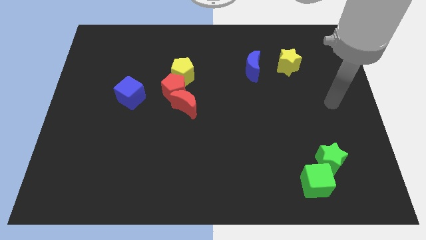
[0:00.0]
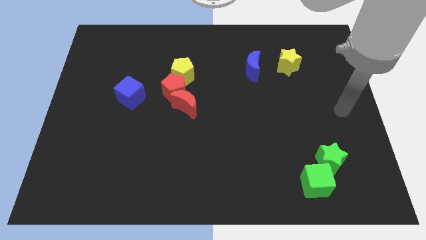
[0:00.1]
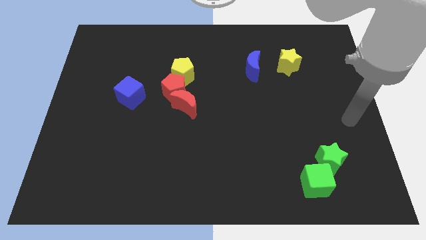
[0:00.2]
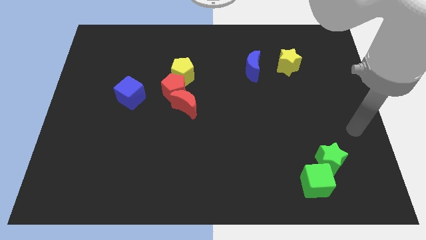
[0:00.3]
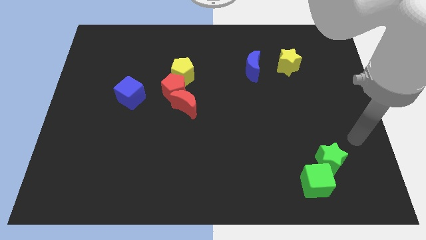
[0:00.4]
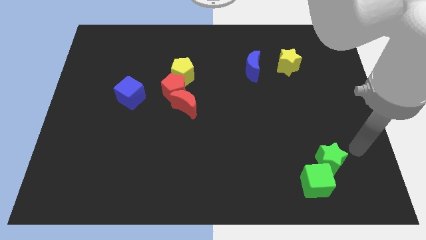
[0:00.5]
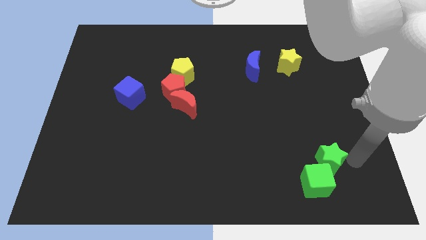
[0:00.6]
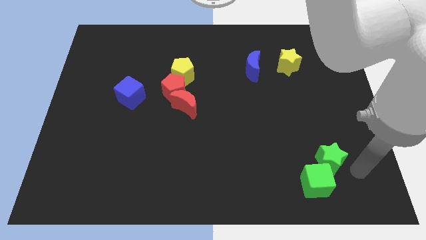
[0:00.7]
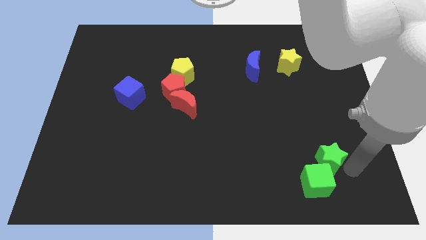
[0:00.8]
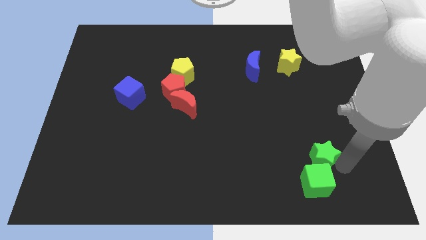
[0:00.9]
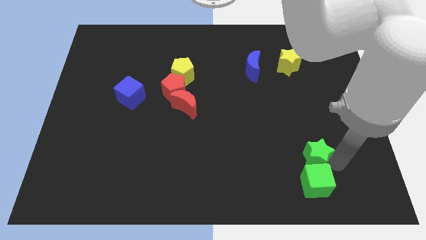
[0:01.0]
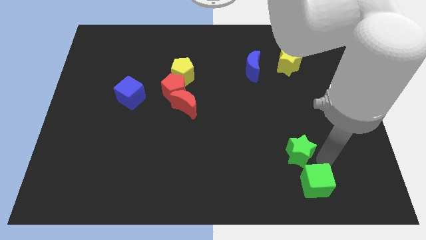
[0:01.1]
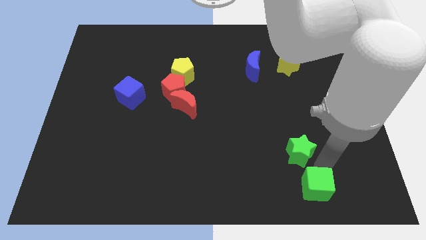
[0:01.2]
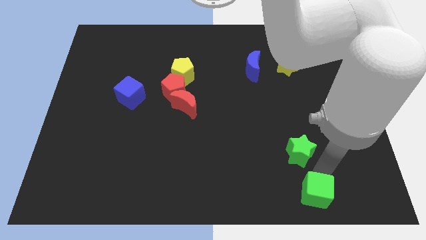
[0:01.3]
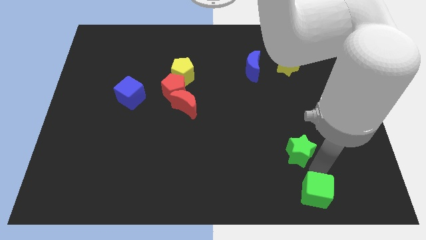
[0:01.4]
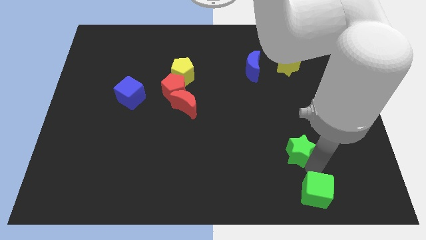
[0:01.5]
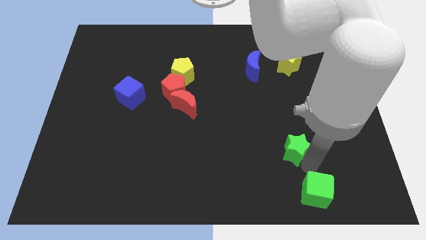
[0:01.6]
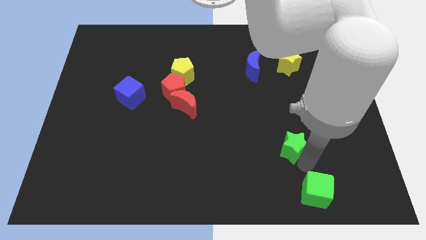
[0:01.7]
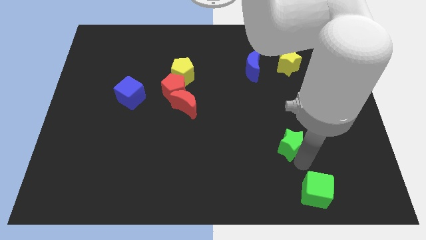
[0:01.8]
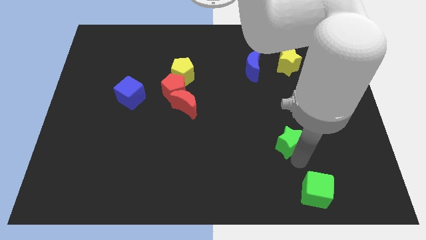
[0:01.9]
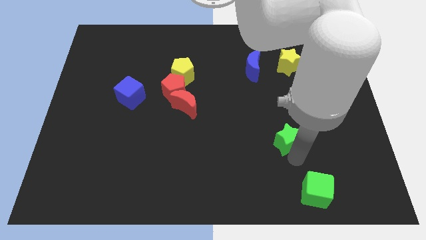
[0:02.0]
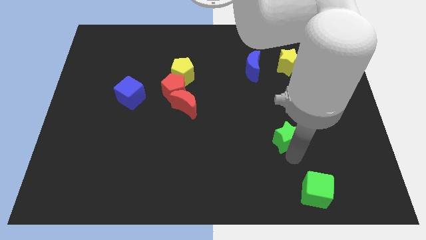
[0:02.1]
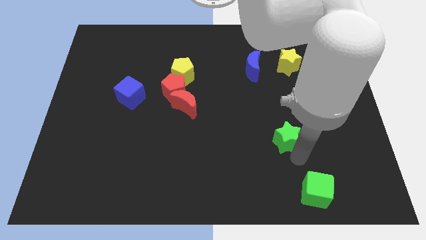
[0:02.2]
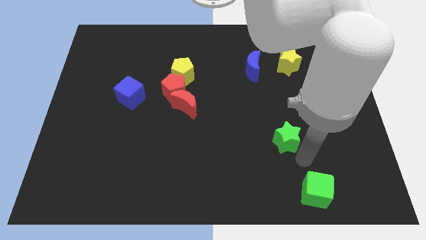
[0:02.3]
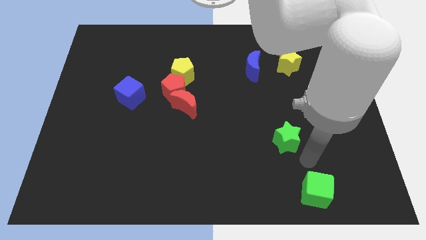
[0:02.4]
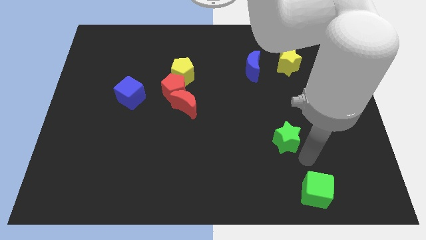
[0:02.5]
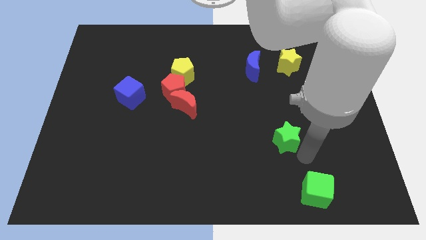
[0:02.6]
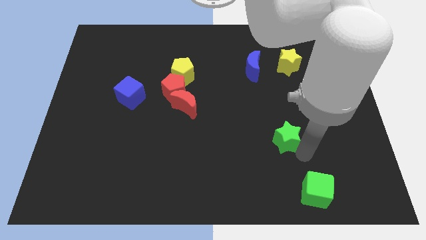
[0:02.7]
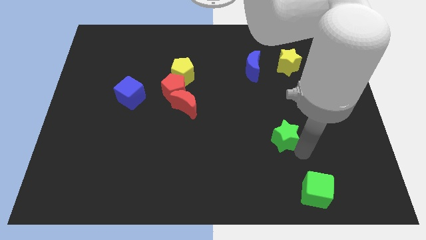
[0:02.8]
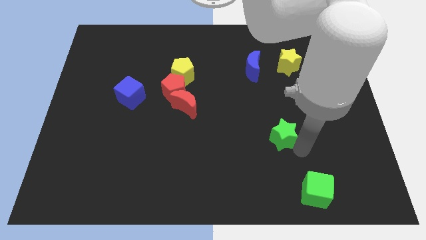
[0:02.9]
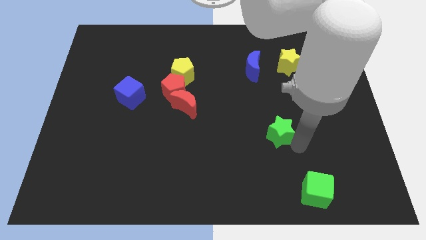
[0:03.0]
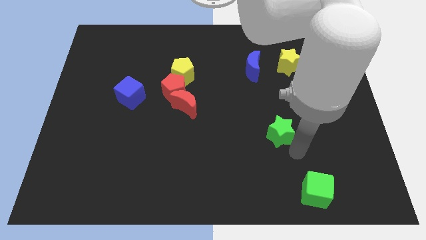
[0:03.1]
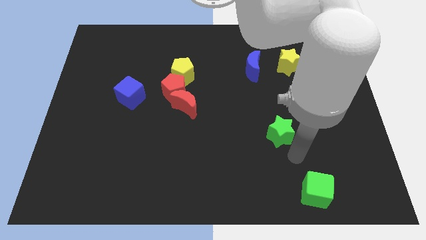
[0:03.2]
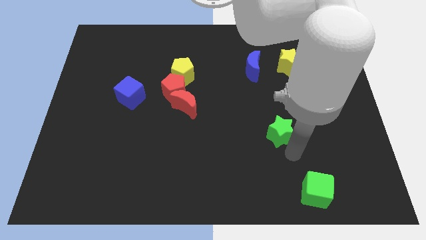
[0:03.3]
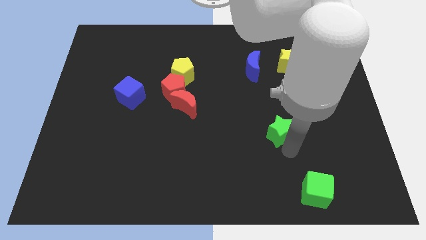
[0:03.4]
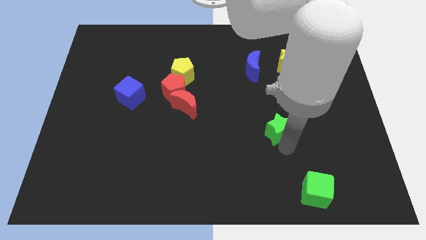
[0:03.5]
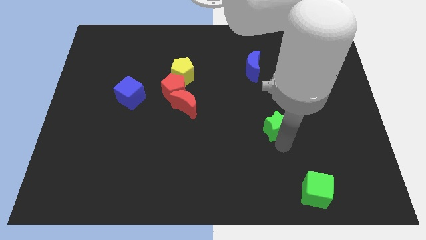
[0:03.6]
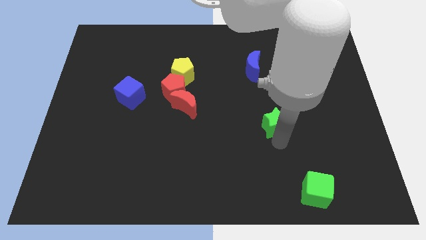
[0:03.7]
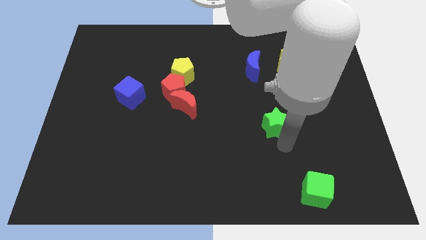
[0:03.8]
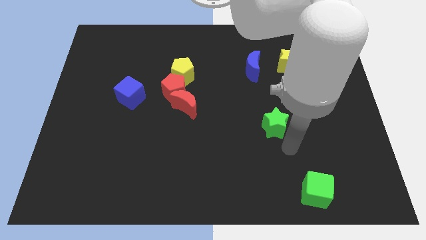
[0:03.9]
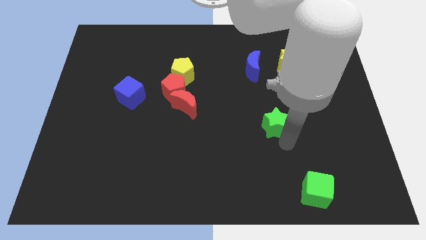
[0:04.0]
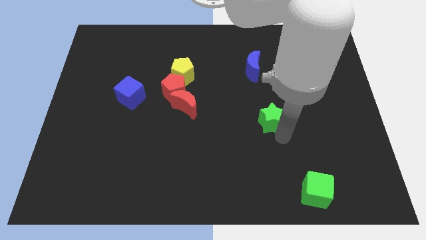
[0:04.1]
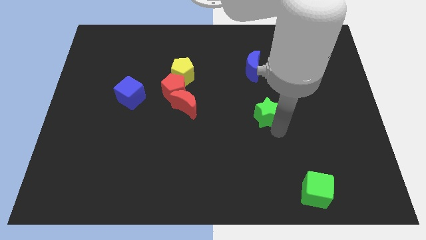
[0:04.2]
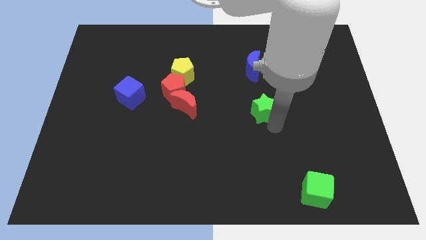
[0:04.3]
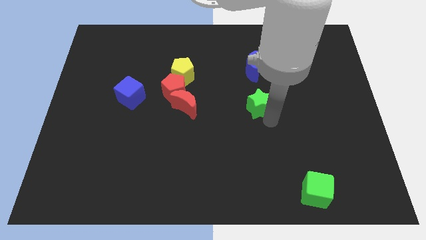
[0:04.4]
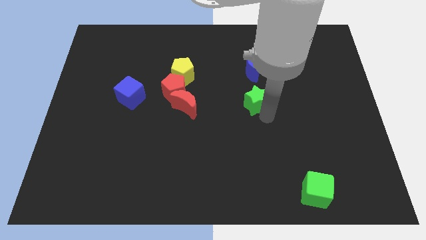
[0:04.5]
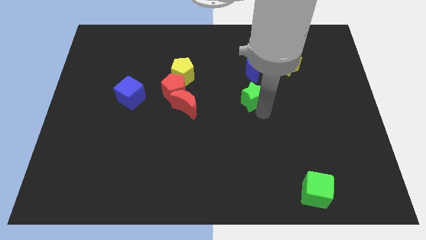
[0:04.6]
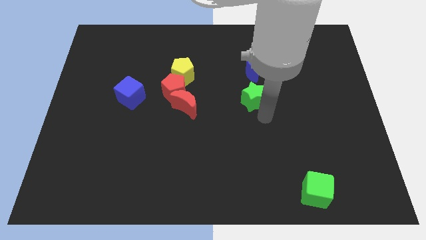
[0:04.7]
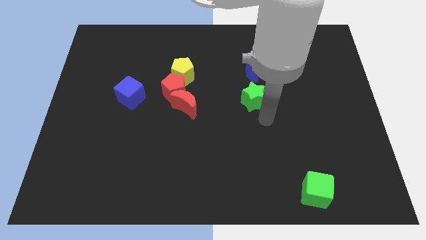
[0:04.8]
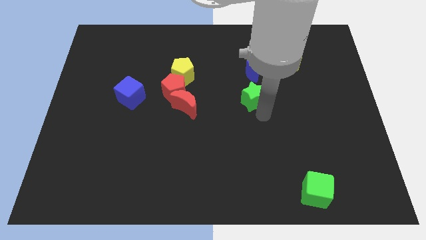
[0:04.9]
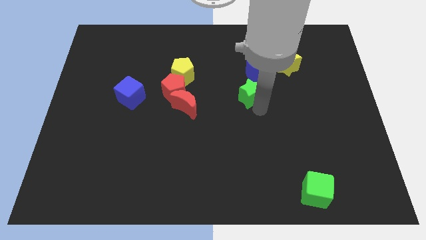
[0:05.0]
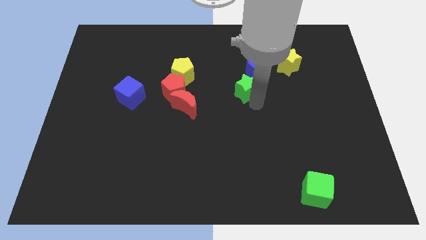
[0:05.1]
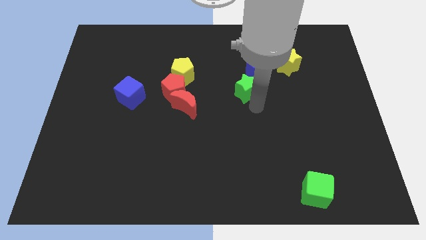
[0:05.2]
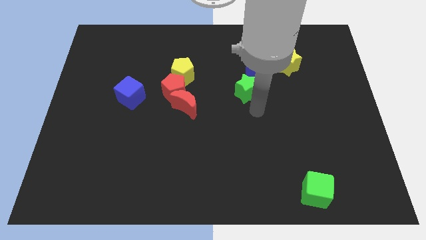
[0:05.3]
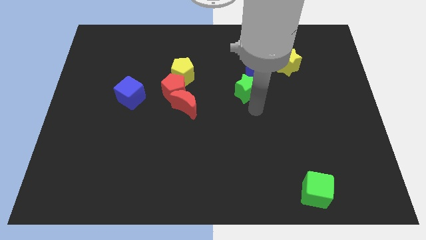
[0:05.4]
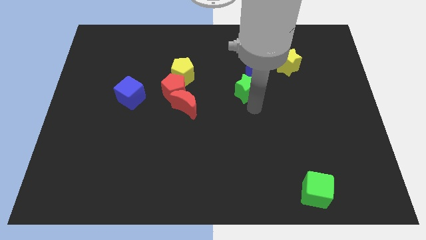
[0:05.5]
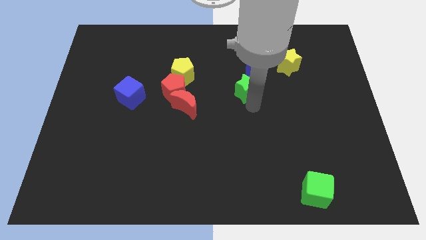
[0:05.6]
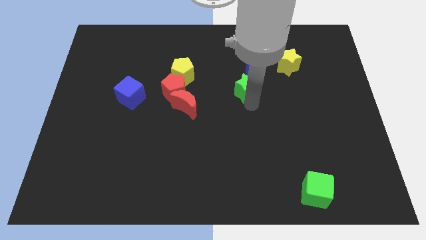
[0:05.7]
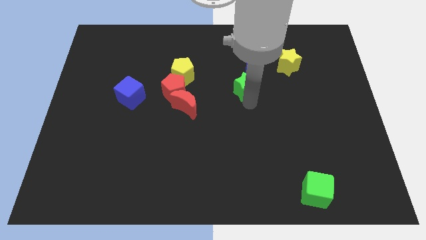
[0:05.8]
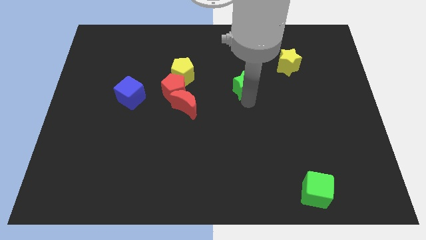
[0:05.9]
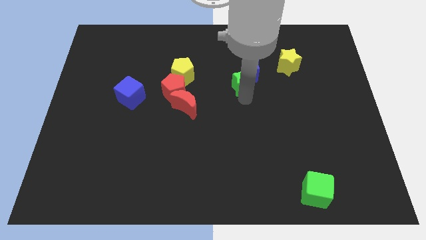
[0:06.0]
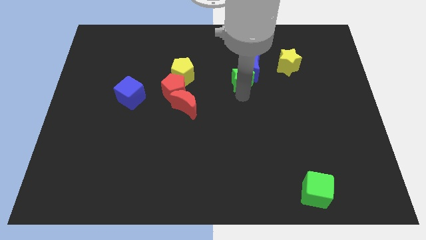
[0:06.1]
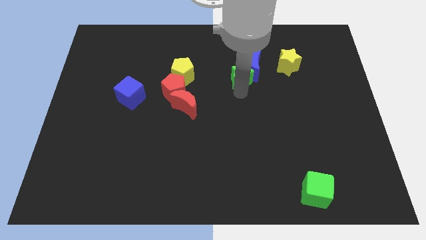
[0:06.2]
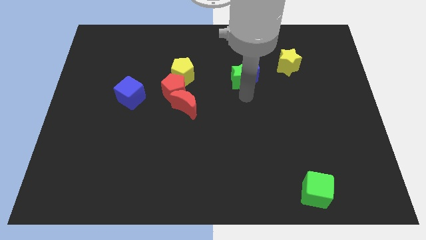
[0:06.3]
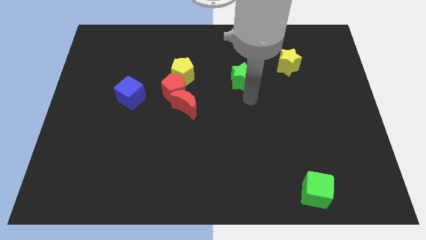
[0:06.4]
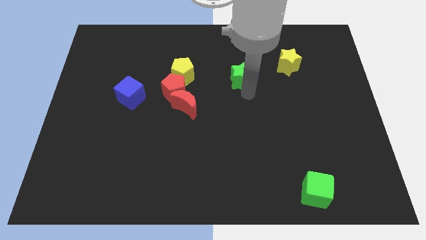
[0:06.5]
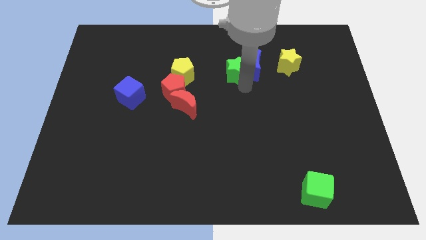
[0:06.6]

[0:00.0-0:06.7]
push the green star to the top left of the blue moon
